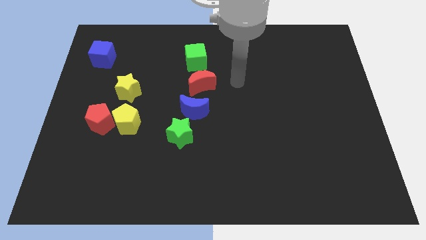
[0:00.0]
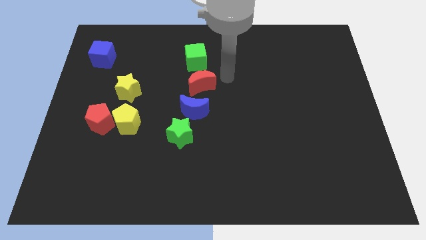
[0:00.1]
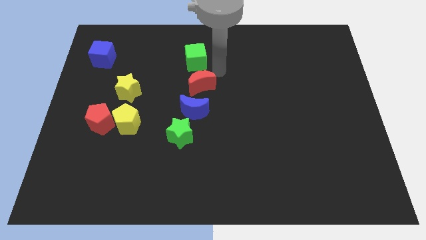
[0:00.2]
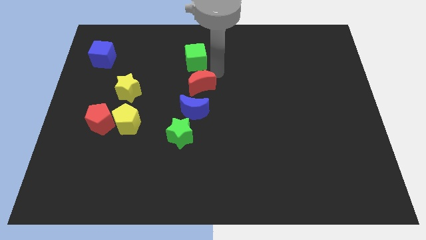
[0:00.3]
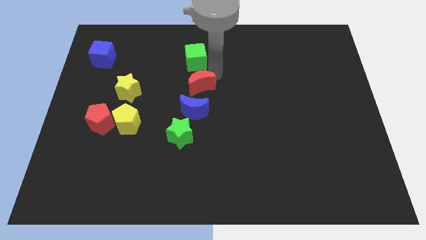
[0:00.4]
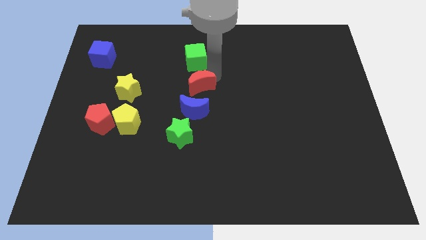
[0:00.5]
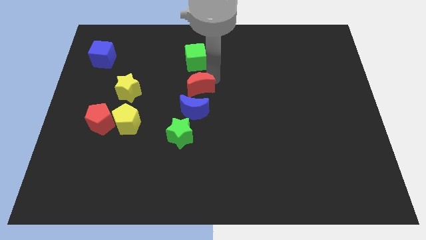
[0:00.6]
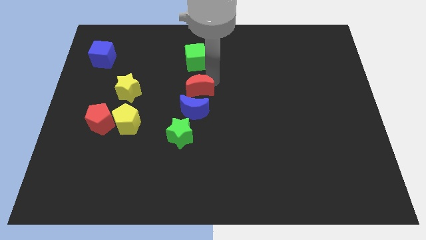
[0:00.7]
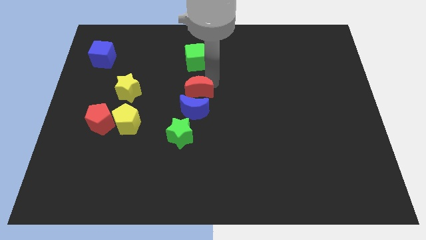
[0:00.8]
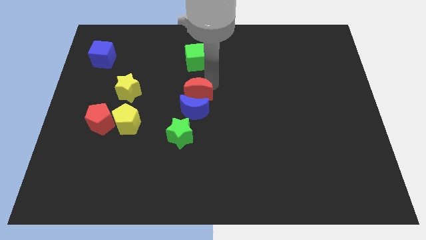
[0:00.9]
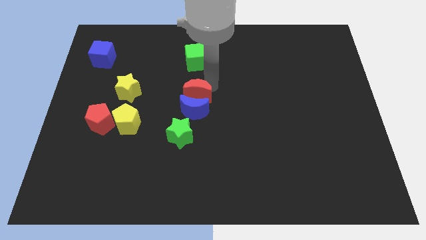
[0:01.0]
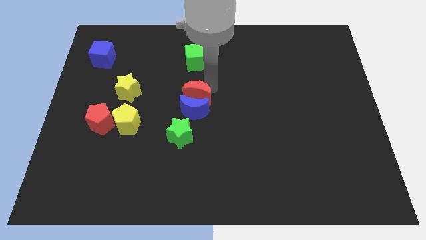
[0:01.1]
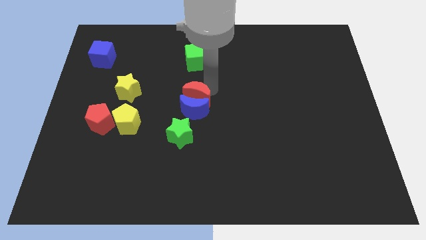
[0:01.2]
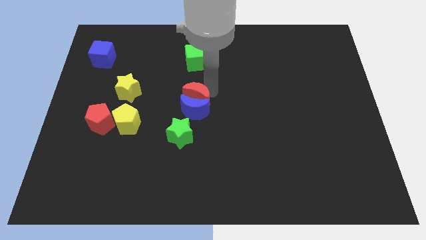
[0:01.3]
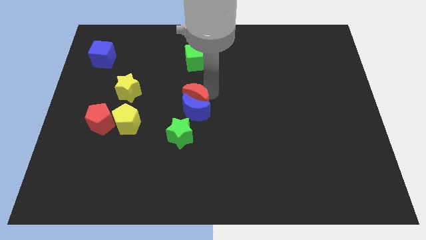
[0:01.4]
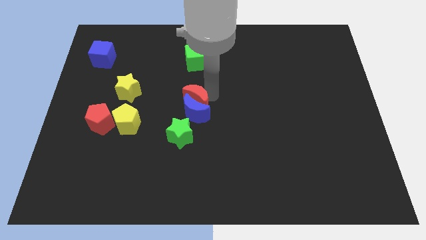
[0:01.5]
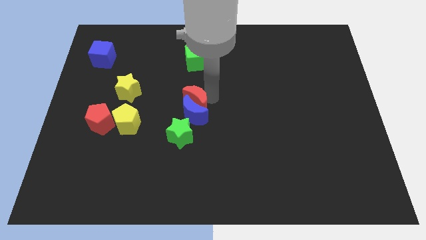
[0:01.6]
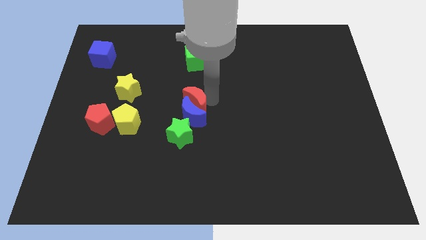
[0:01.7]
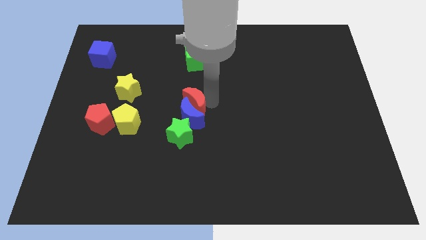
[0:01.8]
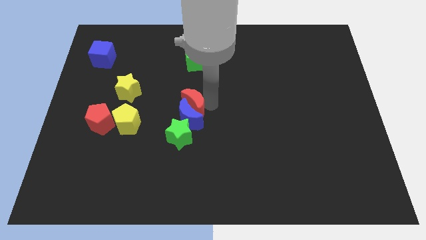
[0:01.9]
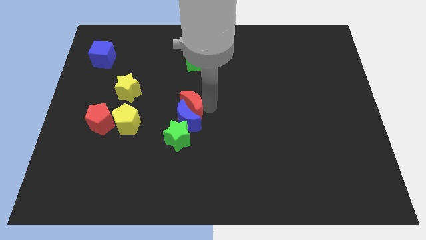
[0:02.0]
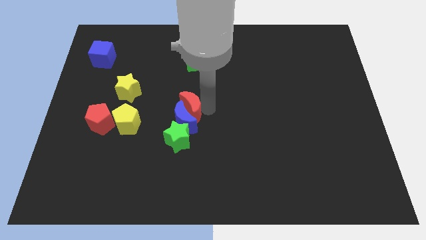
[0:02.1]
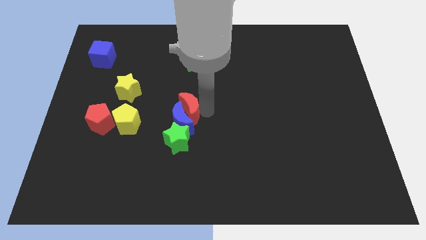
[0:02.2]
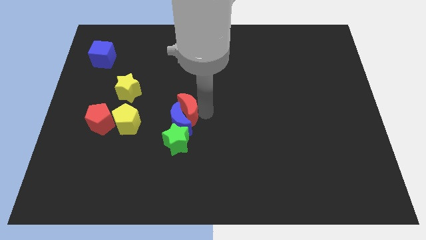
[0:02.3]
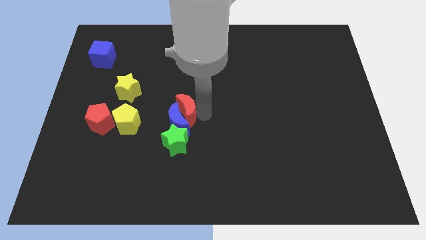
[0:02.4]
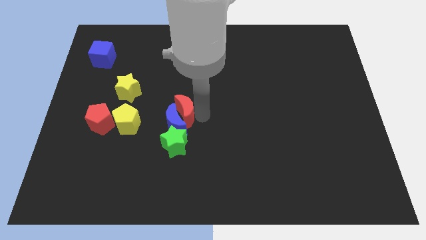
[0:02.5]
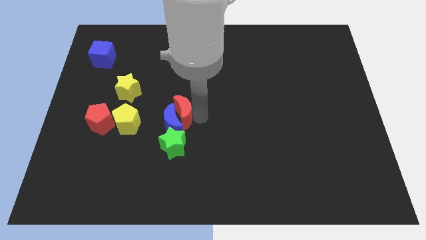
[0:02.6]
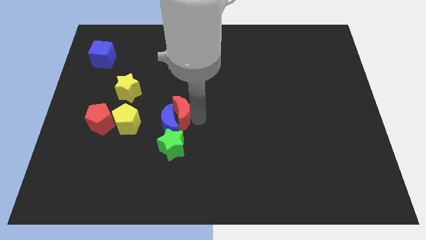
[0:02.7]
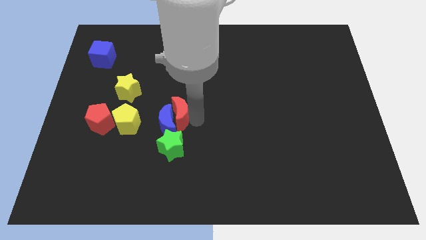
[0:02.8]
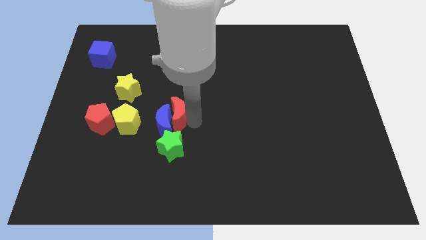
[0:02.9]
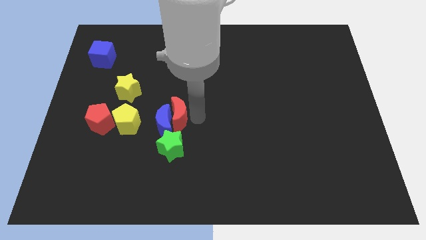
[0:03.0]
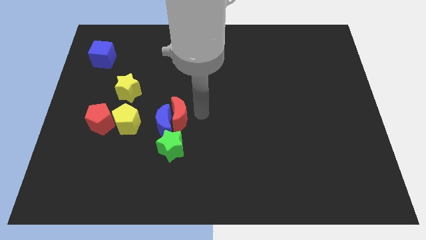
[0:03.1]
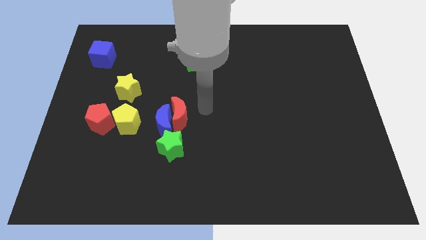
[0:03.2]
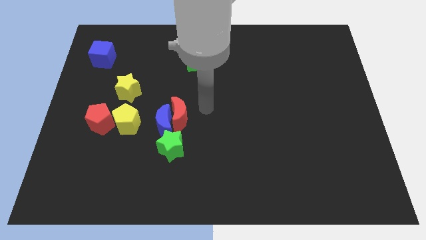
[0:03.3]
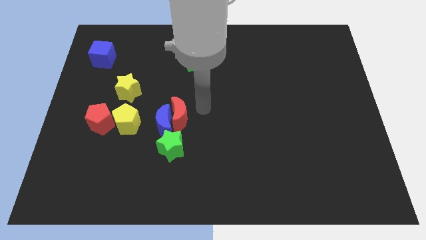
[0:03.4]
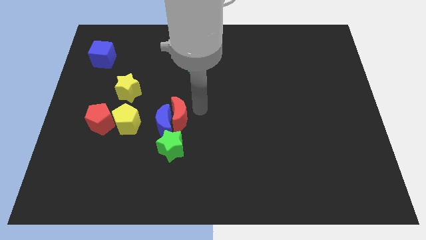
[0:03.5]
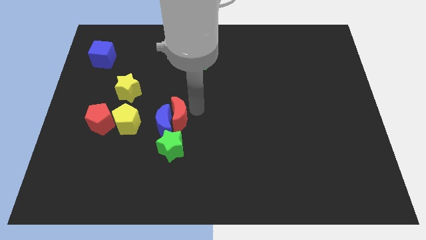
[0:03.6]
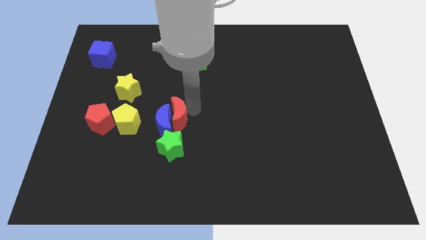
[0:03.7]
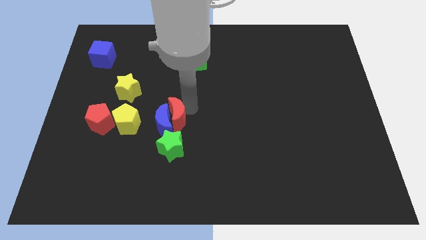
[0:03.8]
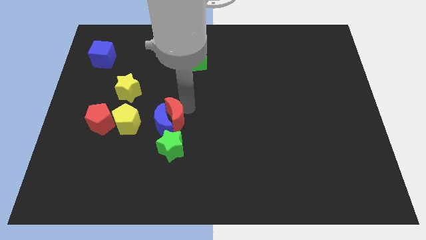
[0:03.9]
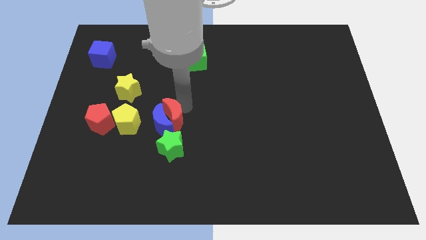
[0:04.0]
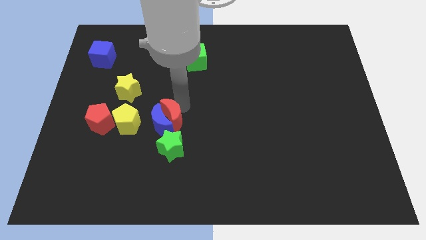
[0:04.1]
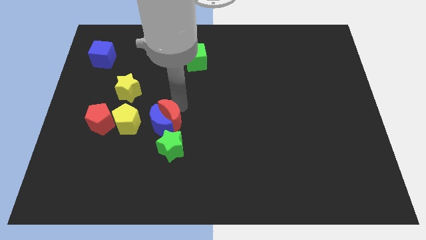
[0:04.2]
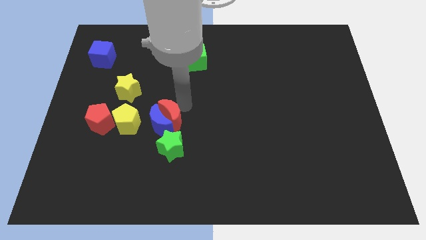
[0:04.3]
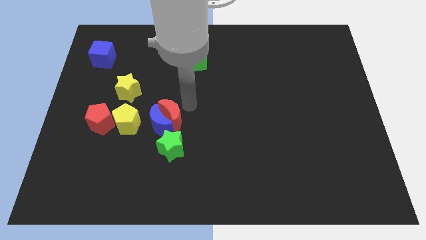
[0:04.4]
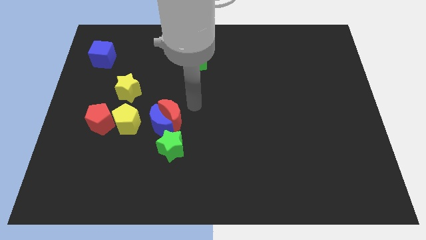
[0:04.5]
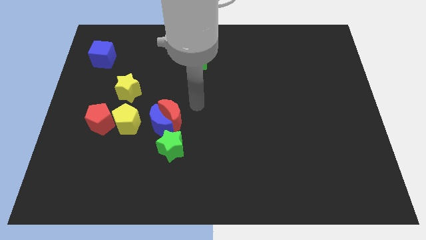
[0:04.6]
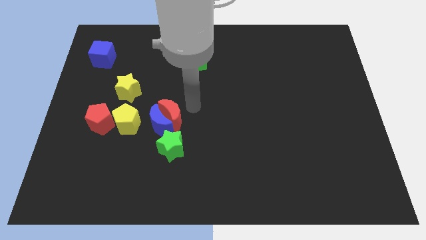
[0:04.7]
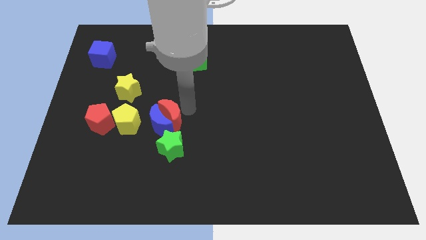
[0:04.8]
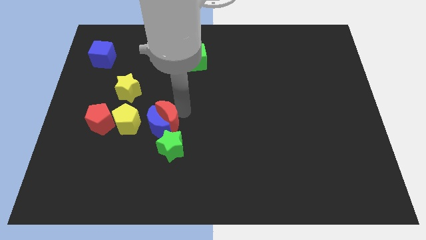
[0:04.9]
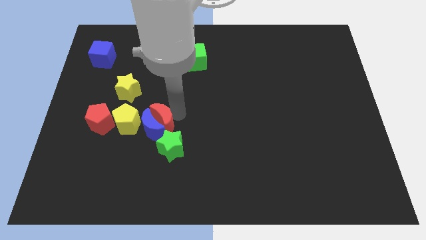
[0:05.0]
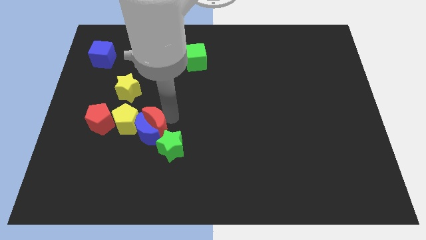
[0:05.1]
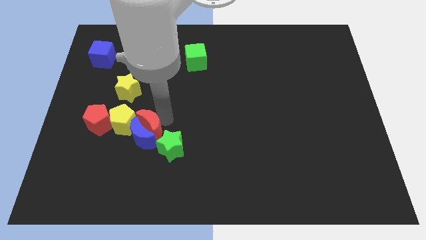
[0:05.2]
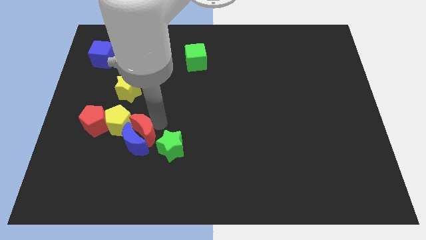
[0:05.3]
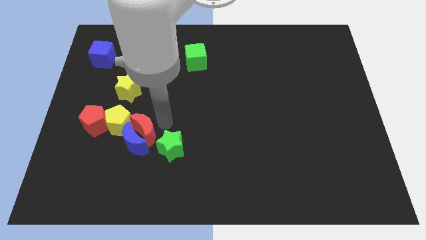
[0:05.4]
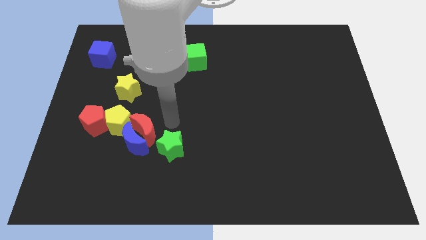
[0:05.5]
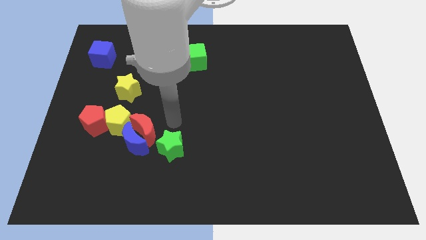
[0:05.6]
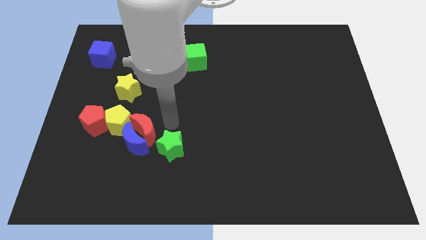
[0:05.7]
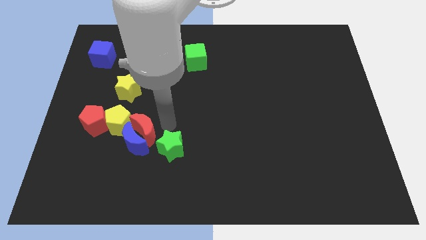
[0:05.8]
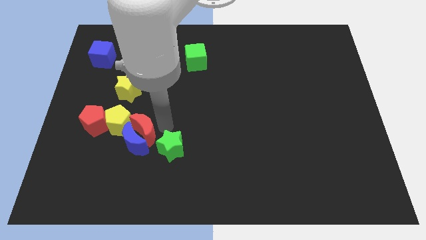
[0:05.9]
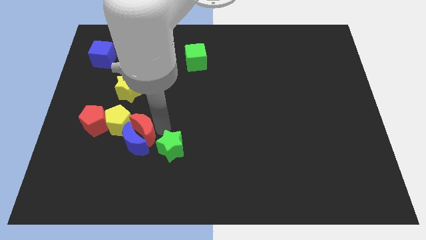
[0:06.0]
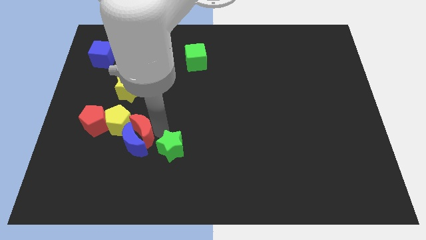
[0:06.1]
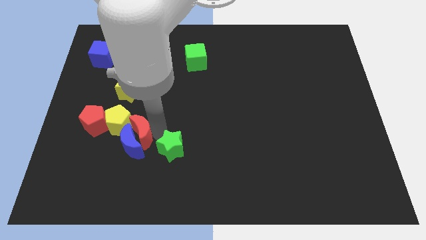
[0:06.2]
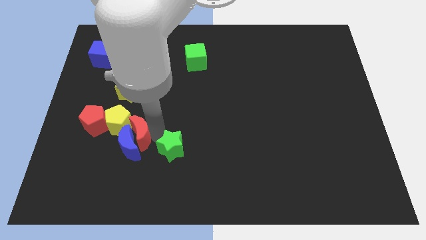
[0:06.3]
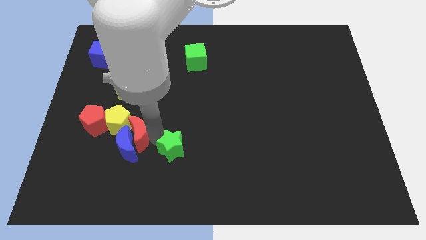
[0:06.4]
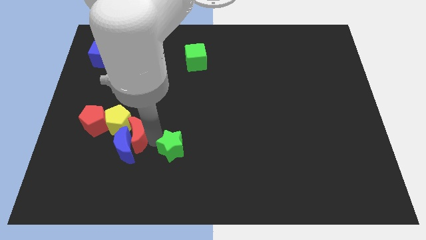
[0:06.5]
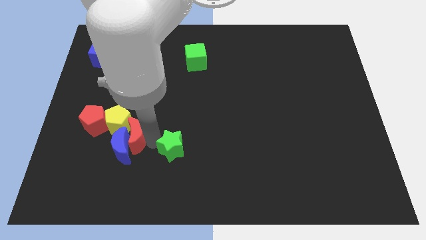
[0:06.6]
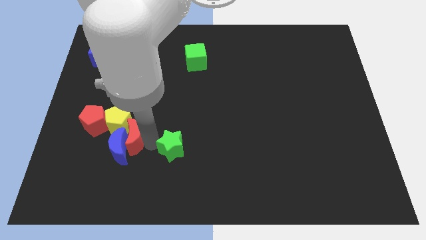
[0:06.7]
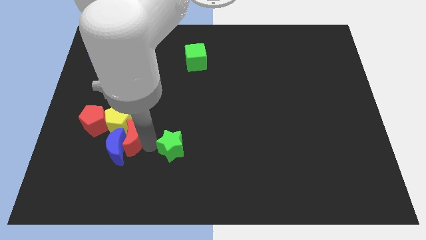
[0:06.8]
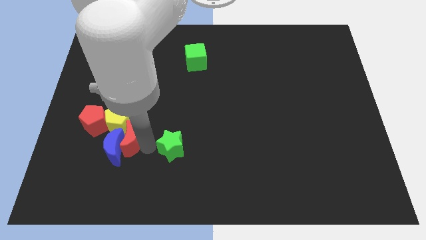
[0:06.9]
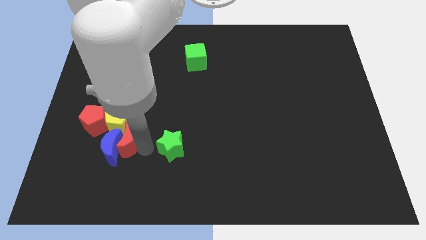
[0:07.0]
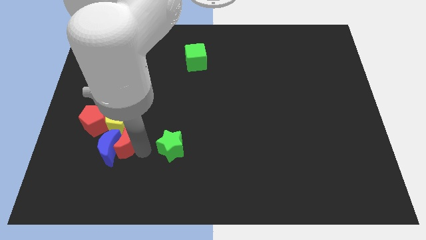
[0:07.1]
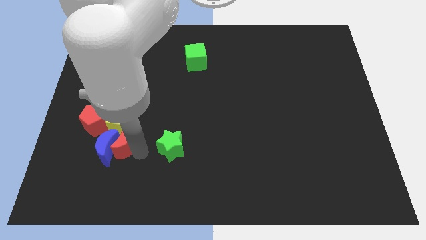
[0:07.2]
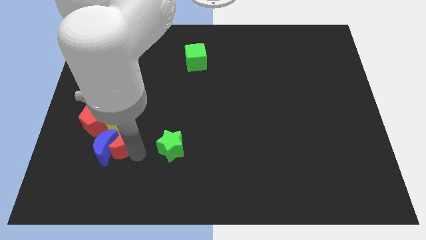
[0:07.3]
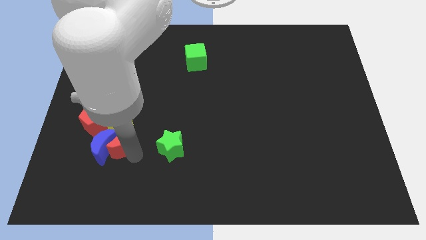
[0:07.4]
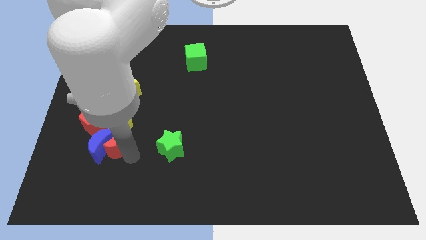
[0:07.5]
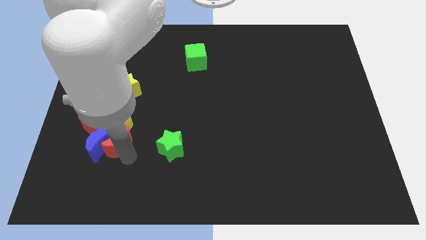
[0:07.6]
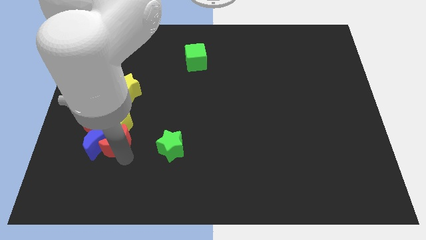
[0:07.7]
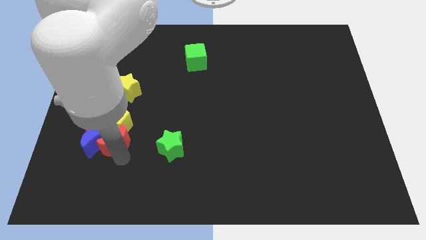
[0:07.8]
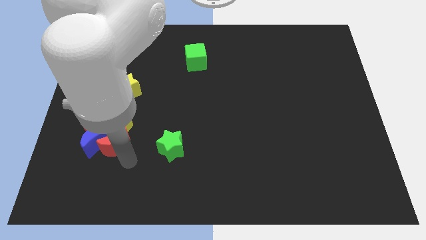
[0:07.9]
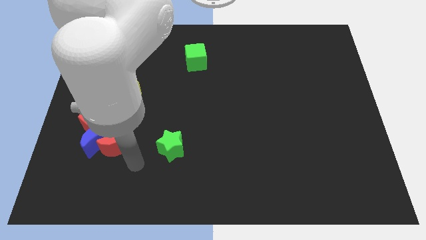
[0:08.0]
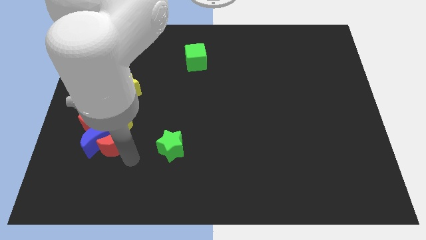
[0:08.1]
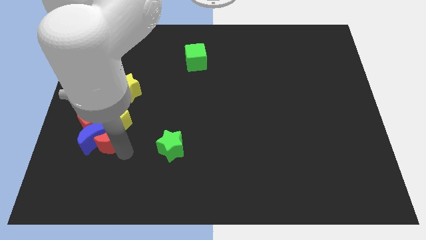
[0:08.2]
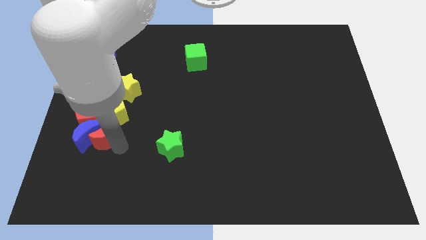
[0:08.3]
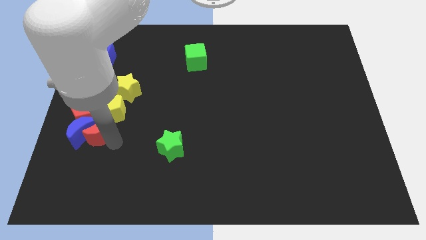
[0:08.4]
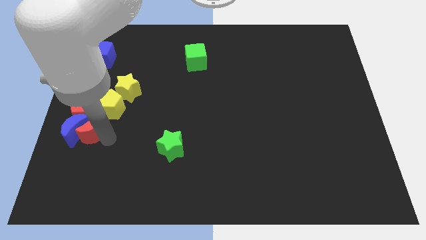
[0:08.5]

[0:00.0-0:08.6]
put the red moon next to the red pentagon
